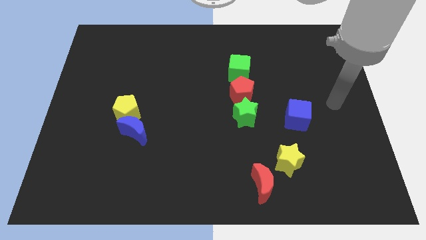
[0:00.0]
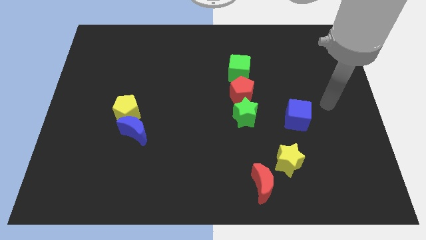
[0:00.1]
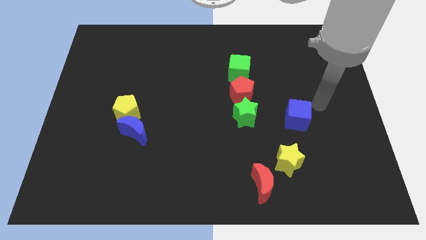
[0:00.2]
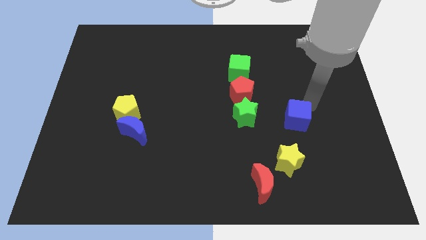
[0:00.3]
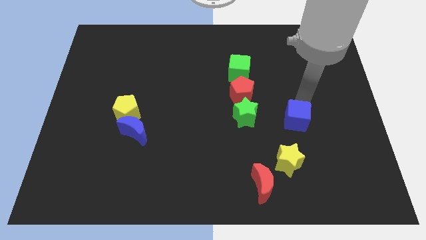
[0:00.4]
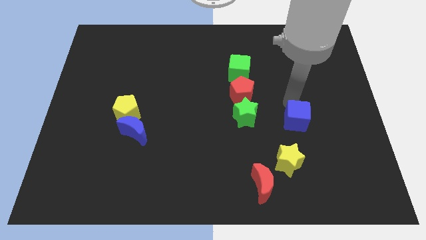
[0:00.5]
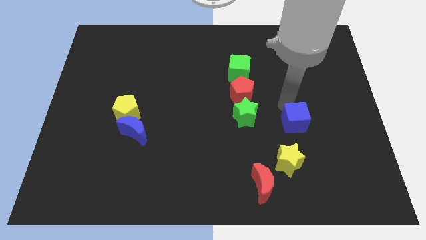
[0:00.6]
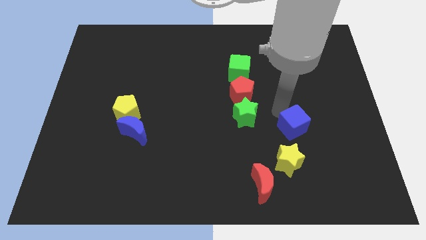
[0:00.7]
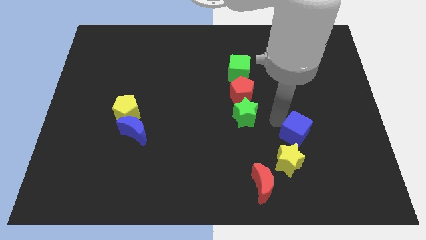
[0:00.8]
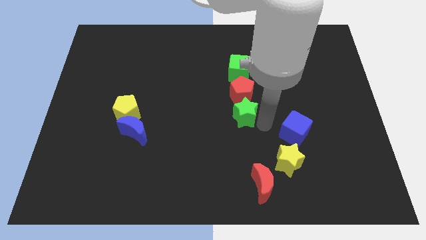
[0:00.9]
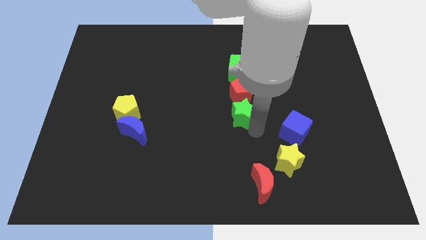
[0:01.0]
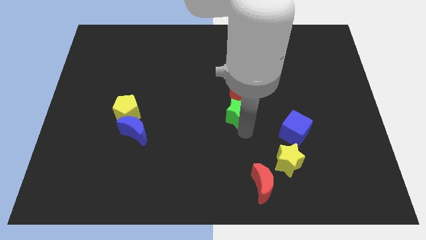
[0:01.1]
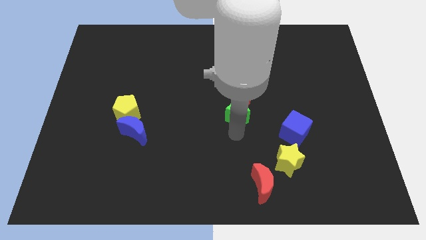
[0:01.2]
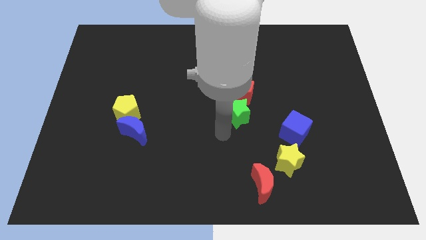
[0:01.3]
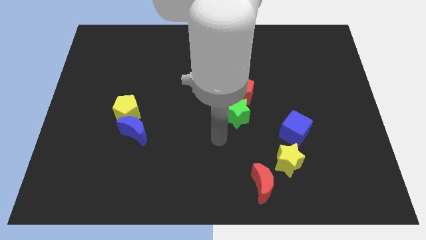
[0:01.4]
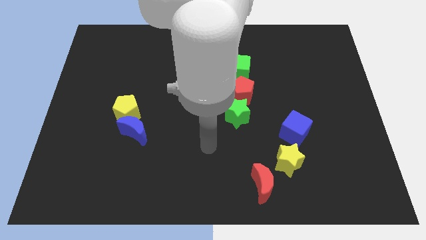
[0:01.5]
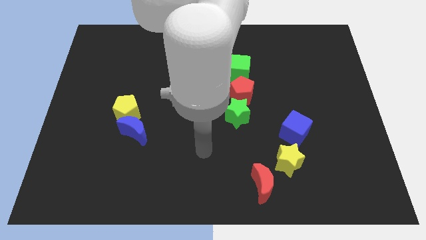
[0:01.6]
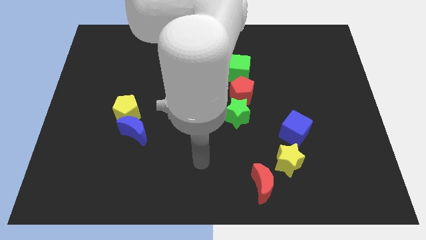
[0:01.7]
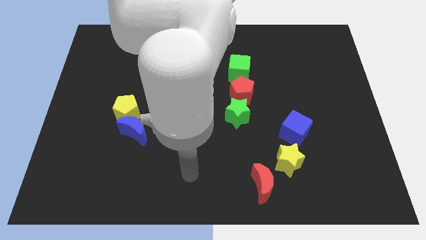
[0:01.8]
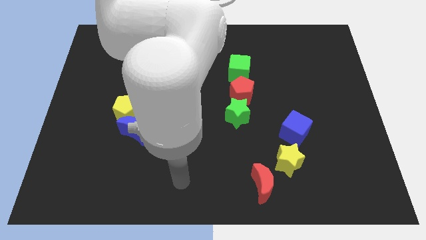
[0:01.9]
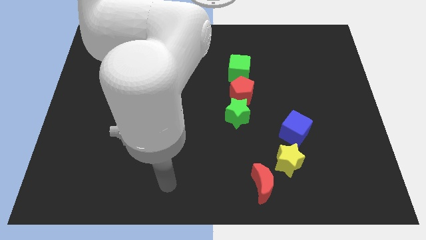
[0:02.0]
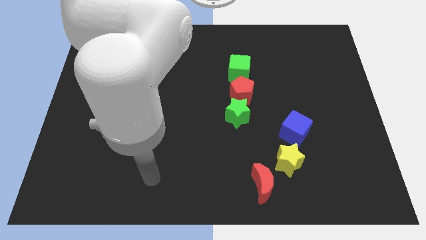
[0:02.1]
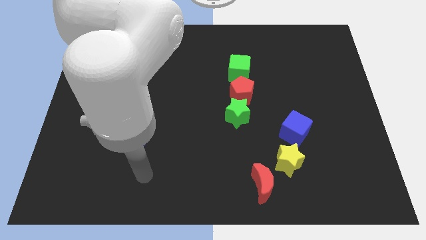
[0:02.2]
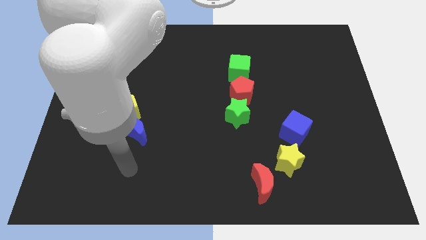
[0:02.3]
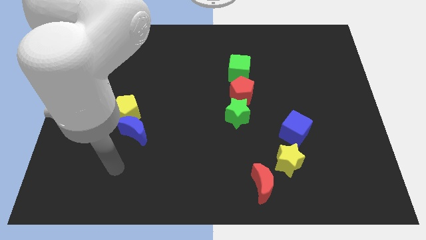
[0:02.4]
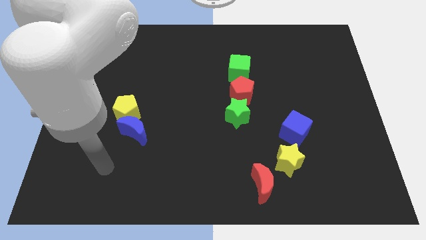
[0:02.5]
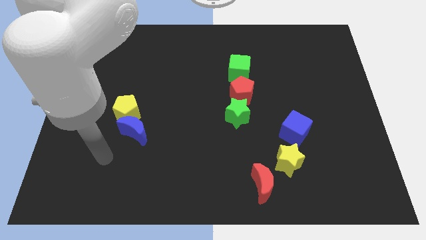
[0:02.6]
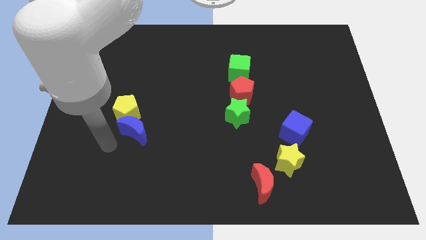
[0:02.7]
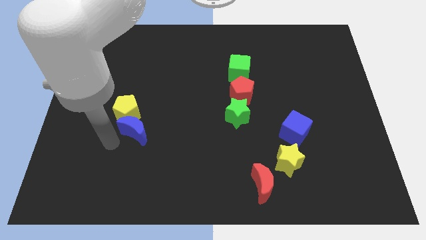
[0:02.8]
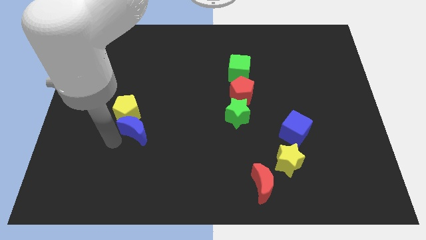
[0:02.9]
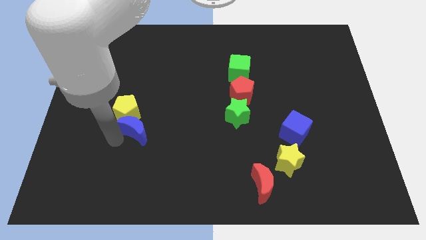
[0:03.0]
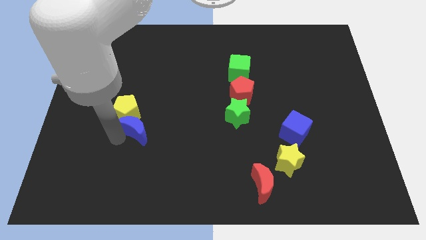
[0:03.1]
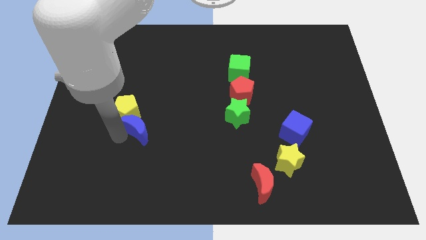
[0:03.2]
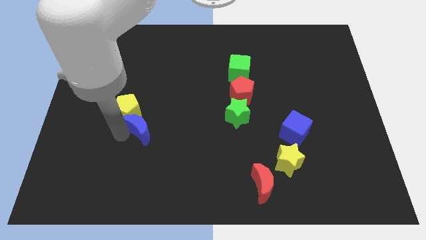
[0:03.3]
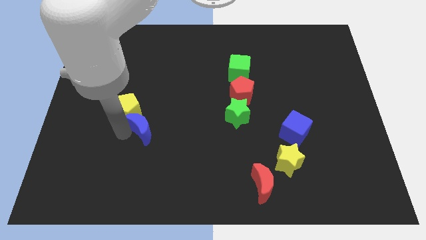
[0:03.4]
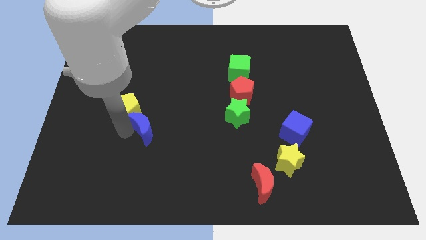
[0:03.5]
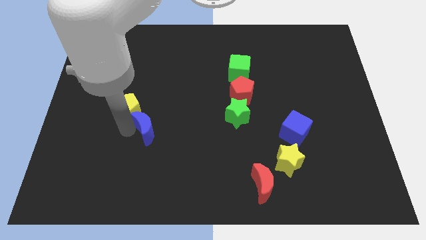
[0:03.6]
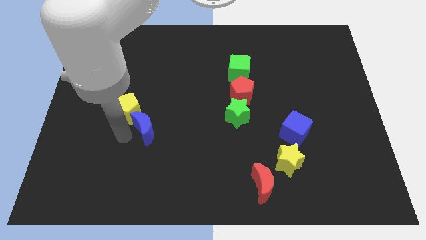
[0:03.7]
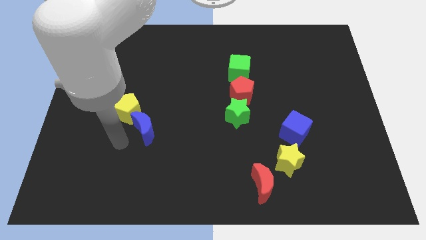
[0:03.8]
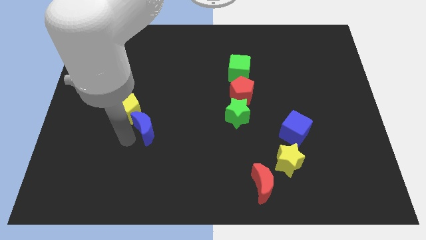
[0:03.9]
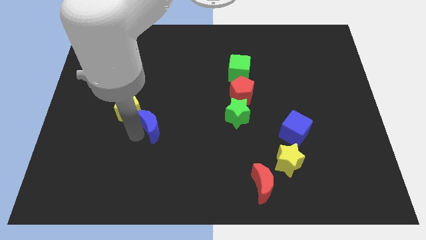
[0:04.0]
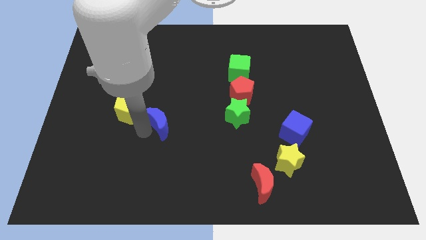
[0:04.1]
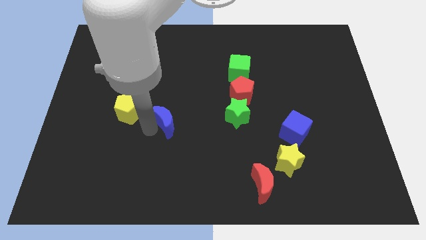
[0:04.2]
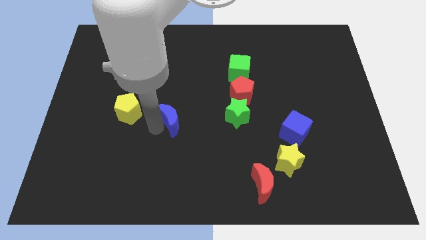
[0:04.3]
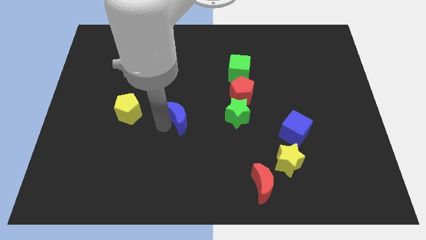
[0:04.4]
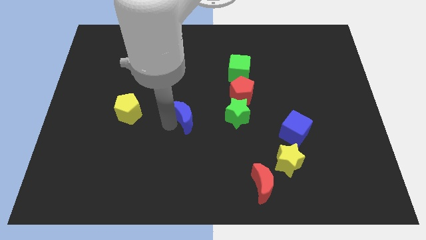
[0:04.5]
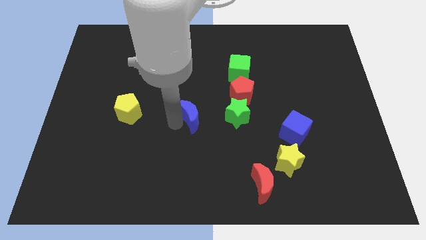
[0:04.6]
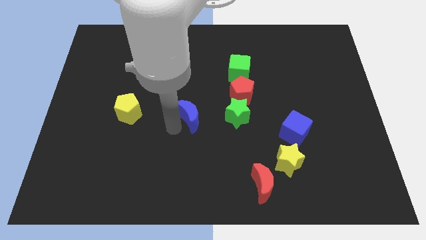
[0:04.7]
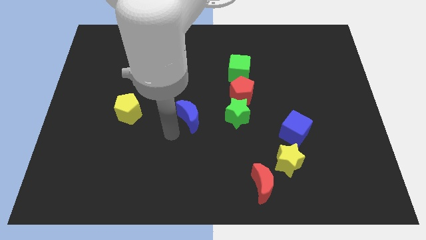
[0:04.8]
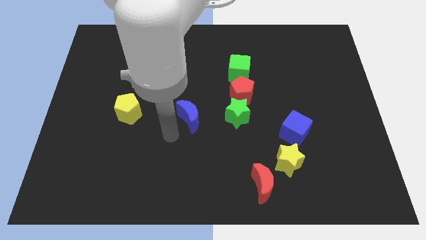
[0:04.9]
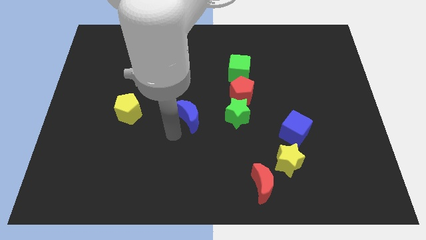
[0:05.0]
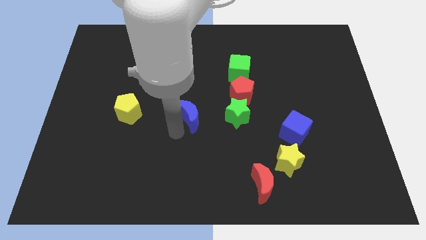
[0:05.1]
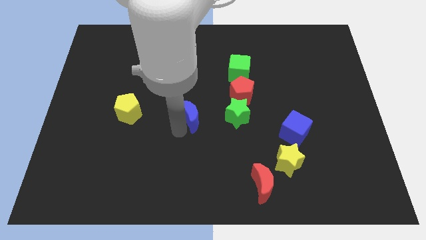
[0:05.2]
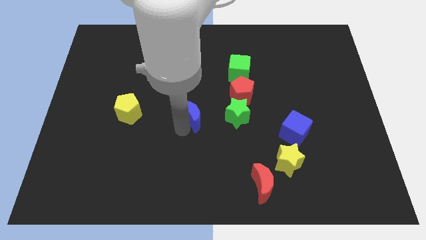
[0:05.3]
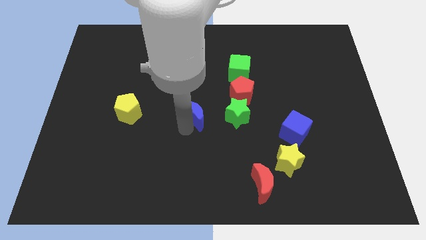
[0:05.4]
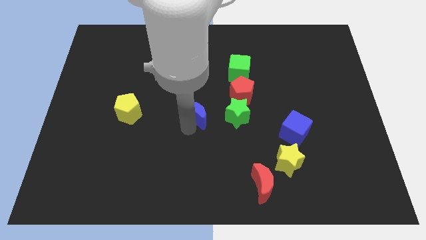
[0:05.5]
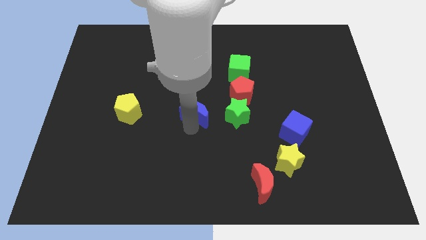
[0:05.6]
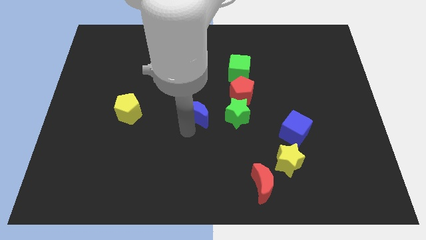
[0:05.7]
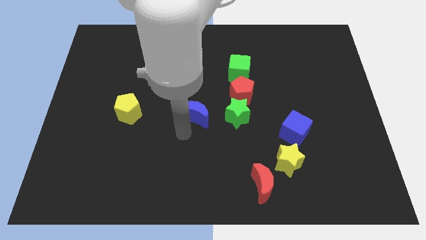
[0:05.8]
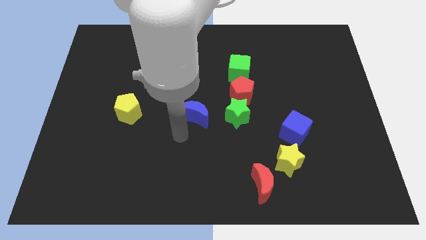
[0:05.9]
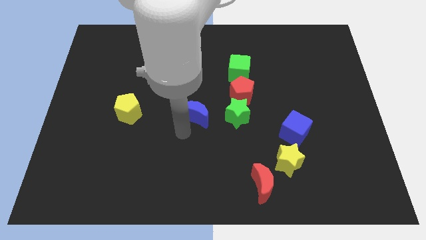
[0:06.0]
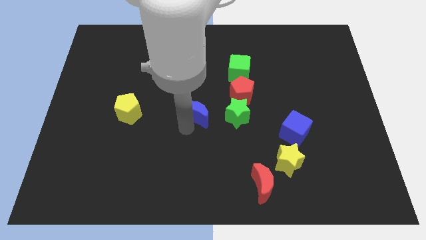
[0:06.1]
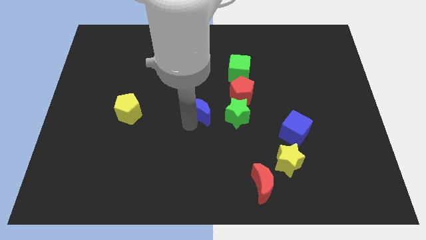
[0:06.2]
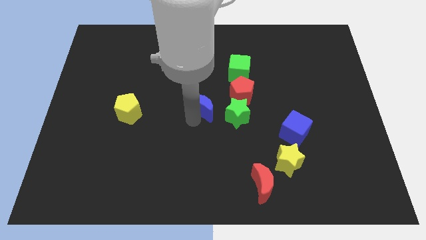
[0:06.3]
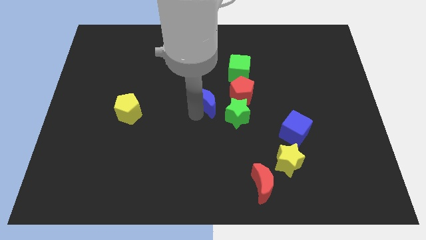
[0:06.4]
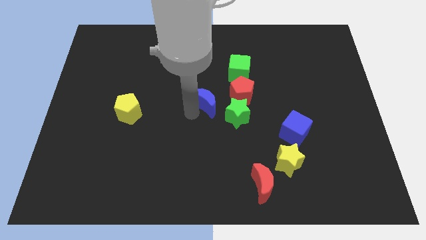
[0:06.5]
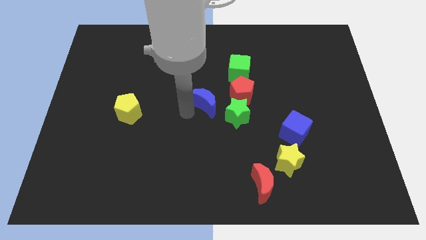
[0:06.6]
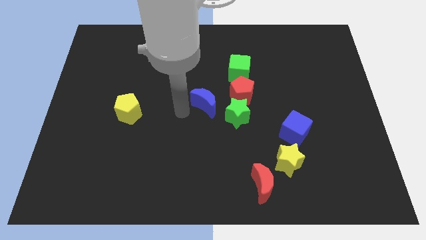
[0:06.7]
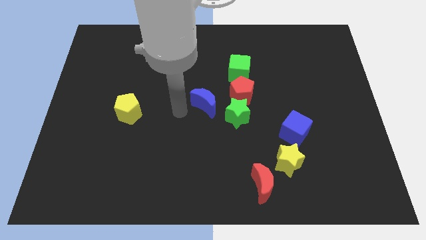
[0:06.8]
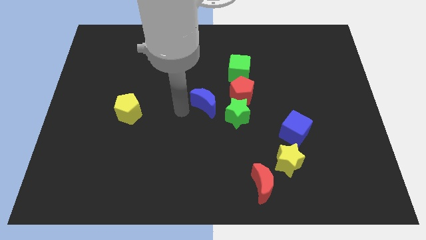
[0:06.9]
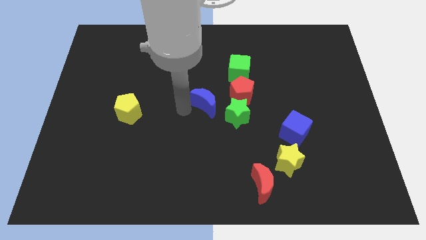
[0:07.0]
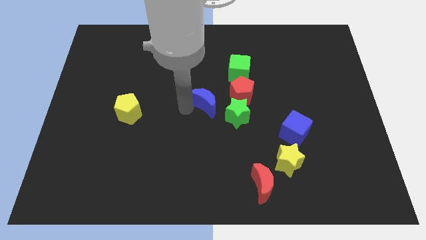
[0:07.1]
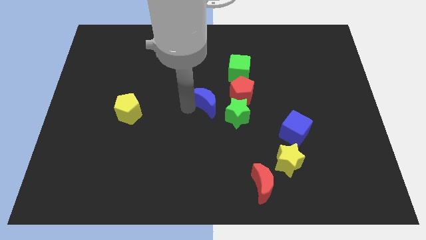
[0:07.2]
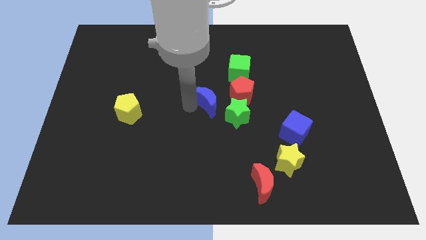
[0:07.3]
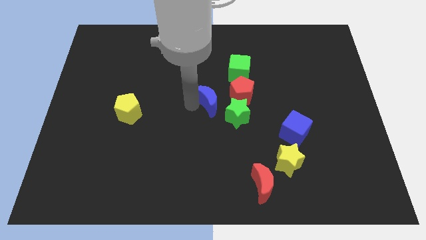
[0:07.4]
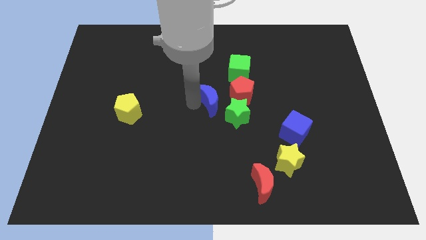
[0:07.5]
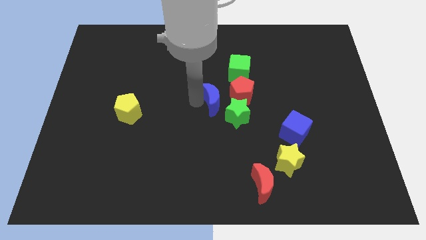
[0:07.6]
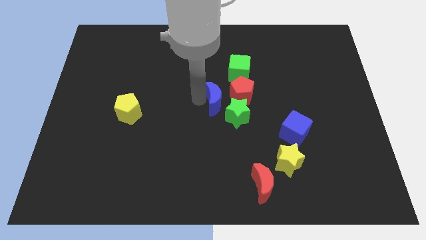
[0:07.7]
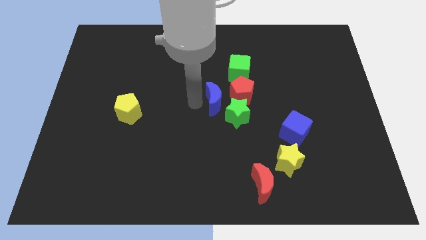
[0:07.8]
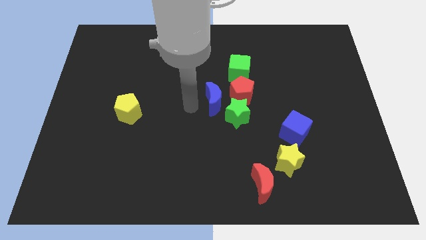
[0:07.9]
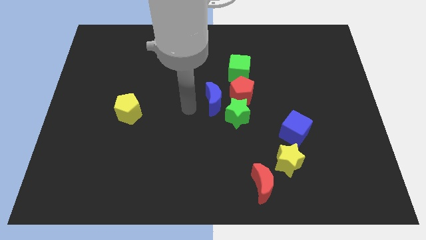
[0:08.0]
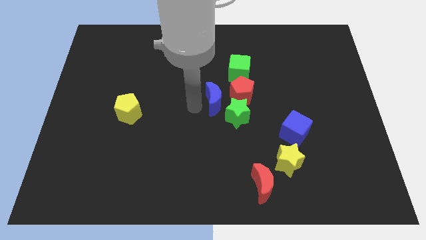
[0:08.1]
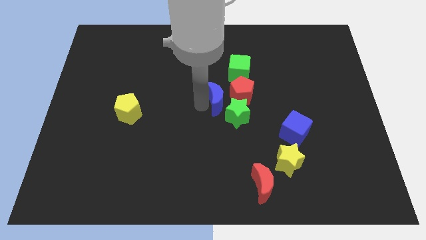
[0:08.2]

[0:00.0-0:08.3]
put the blue moon to the red pentagon
